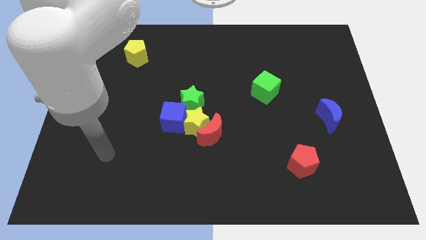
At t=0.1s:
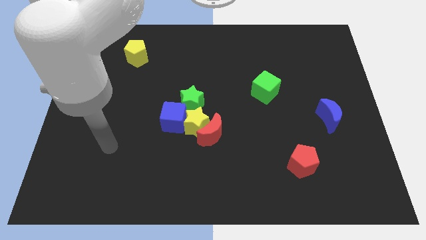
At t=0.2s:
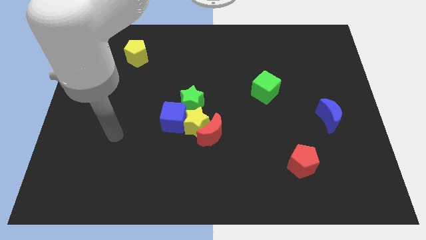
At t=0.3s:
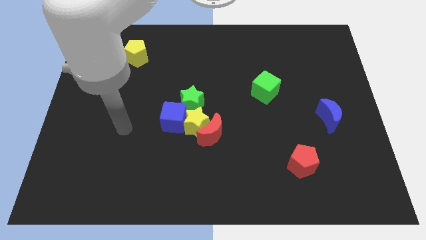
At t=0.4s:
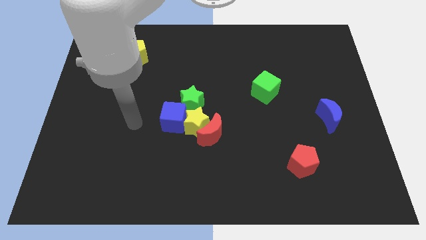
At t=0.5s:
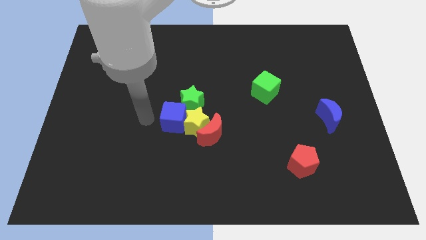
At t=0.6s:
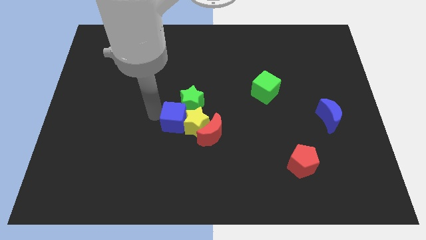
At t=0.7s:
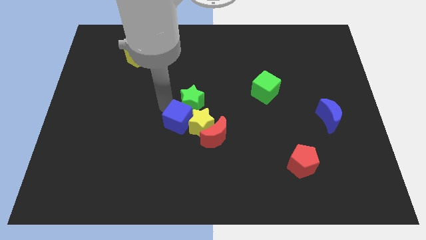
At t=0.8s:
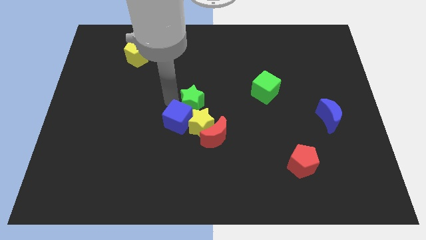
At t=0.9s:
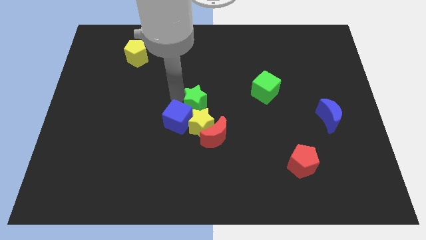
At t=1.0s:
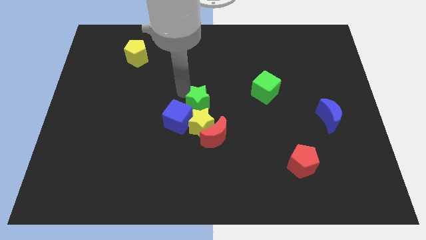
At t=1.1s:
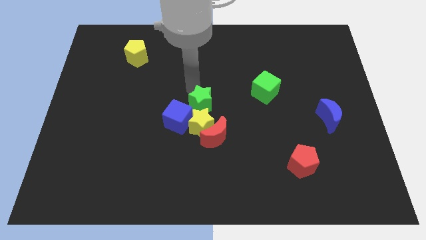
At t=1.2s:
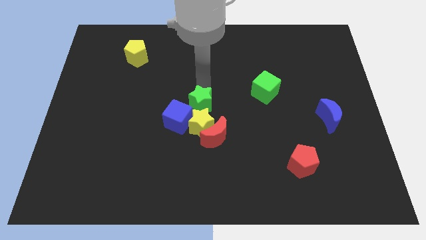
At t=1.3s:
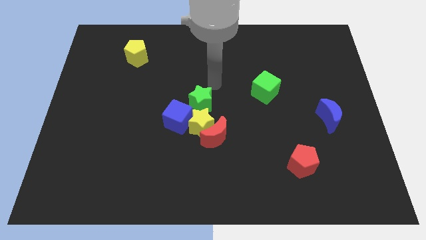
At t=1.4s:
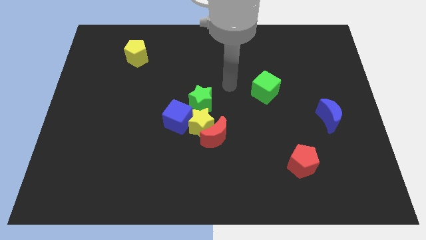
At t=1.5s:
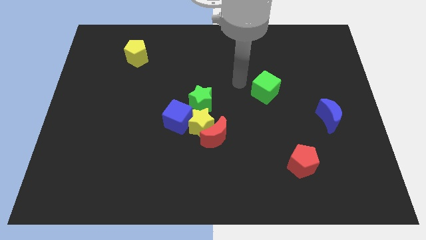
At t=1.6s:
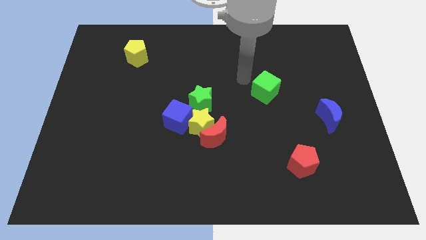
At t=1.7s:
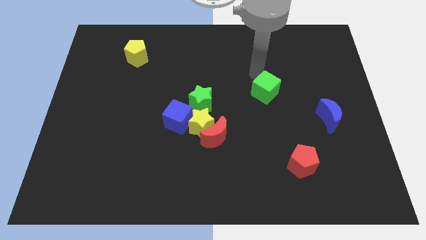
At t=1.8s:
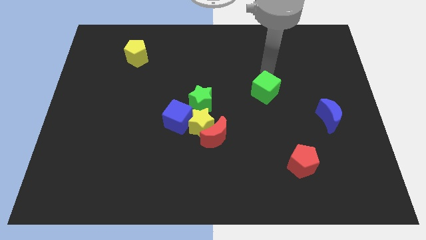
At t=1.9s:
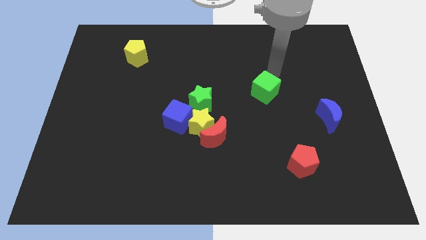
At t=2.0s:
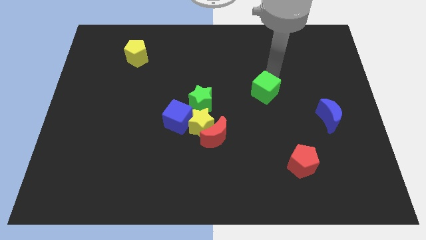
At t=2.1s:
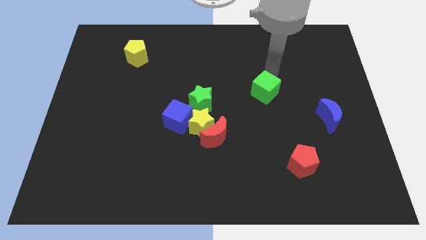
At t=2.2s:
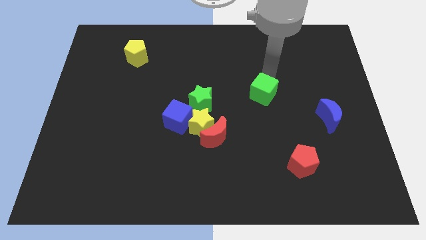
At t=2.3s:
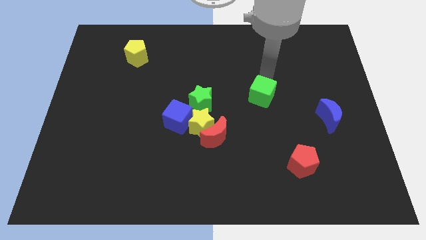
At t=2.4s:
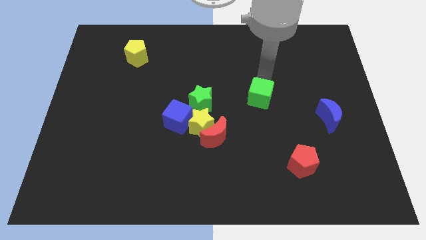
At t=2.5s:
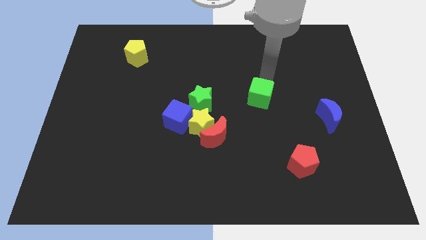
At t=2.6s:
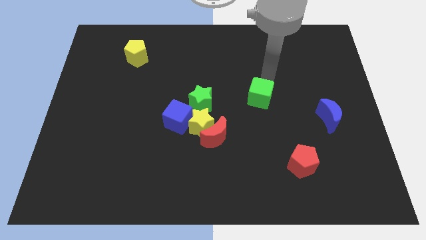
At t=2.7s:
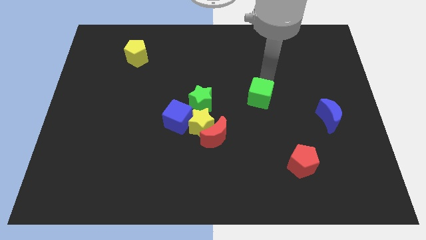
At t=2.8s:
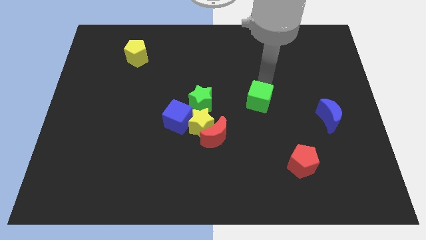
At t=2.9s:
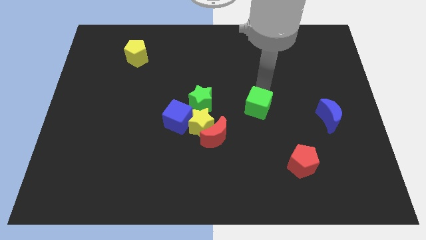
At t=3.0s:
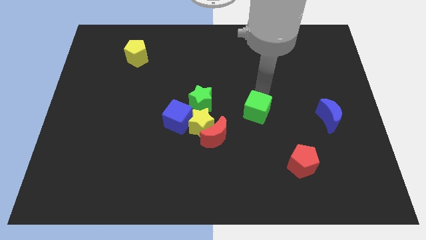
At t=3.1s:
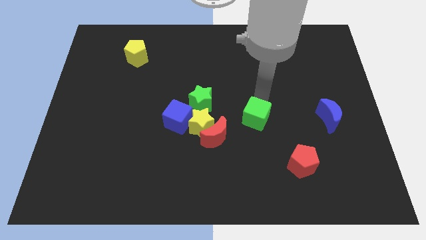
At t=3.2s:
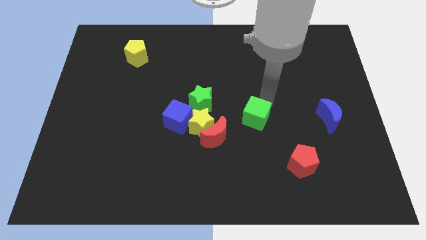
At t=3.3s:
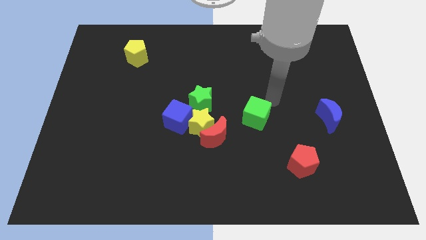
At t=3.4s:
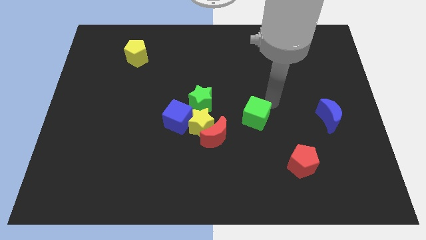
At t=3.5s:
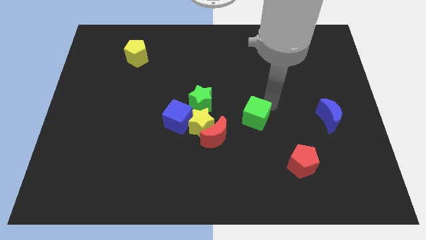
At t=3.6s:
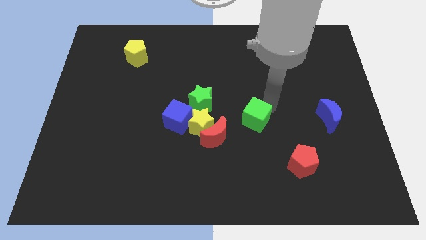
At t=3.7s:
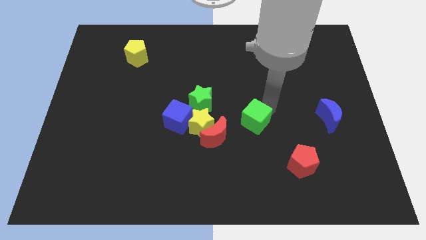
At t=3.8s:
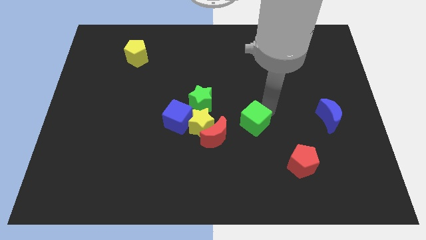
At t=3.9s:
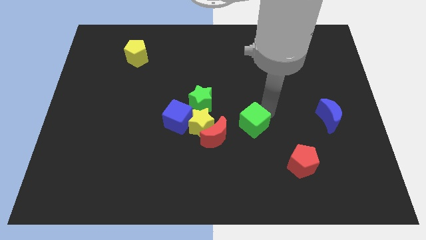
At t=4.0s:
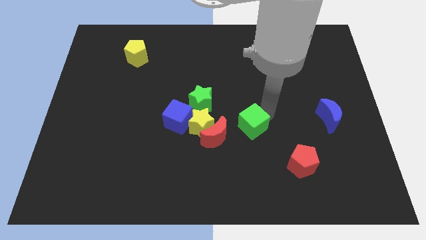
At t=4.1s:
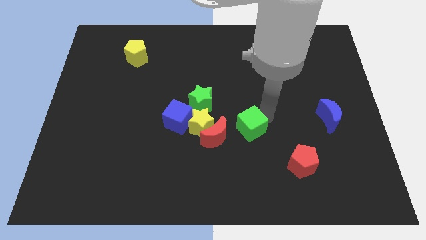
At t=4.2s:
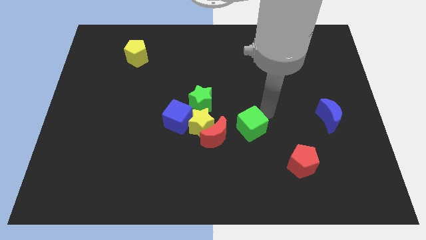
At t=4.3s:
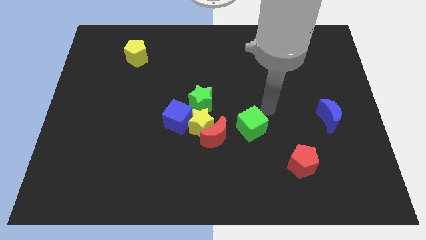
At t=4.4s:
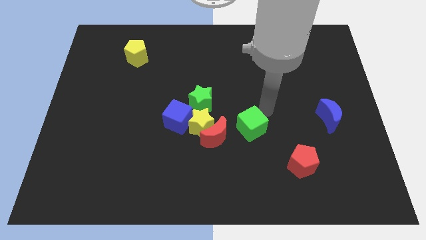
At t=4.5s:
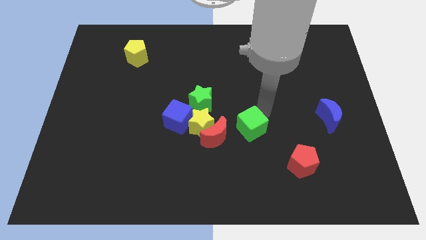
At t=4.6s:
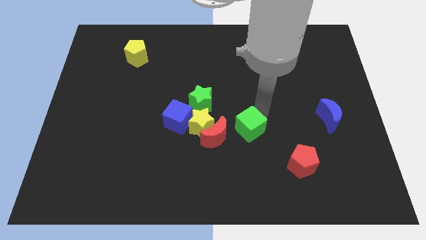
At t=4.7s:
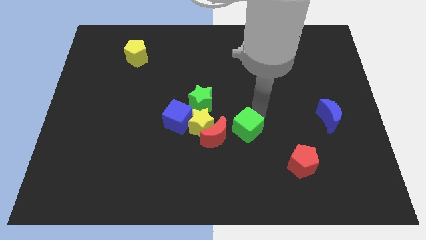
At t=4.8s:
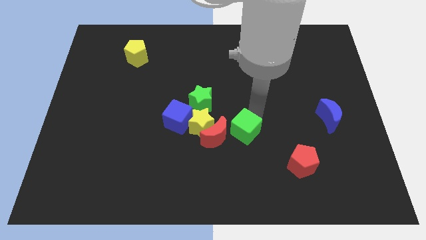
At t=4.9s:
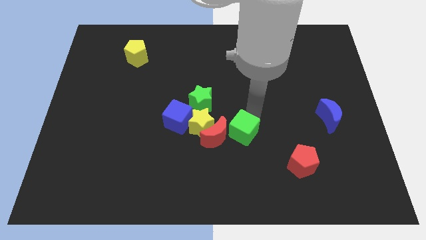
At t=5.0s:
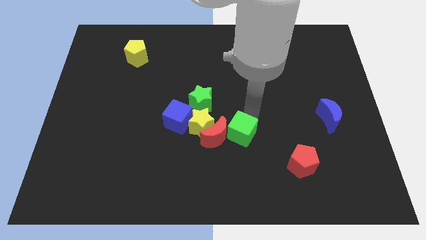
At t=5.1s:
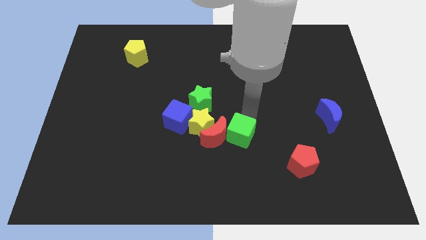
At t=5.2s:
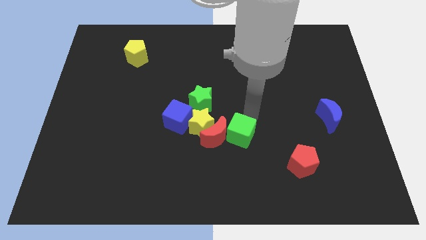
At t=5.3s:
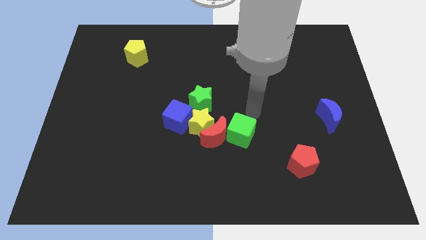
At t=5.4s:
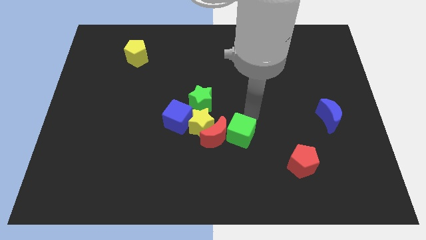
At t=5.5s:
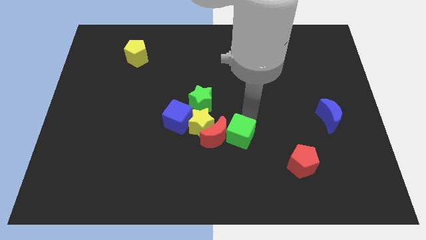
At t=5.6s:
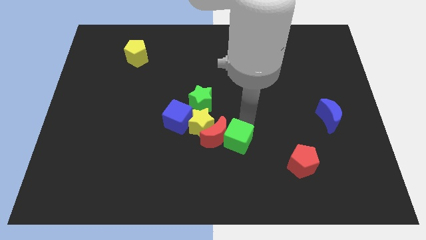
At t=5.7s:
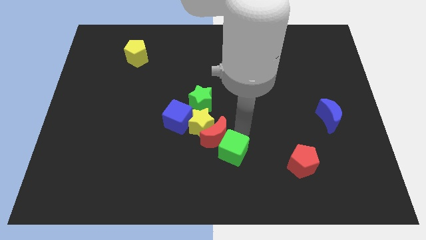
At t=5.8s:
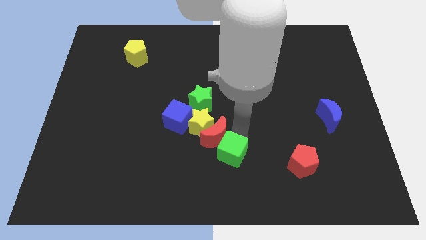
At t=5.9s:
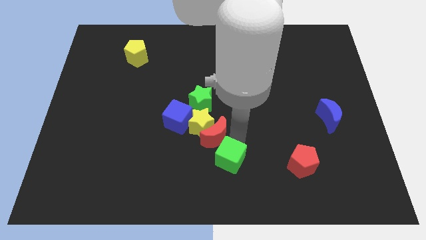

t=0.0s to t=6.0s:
put the green cube to the bottom

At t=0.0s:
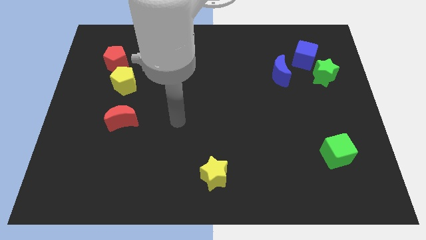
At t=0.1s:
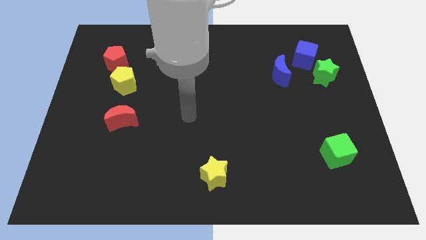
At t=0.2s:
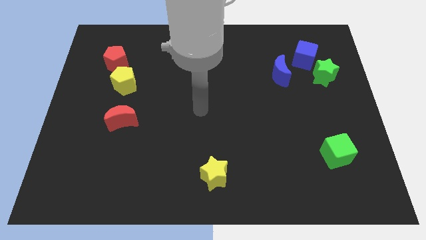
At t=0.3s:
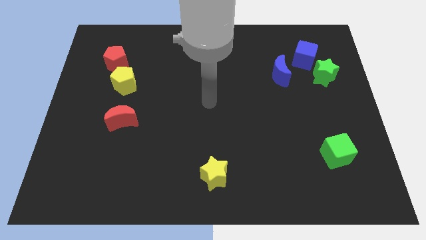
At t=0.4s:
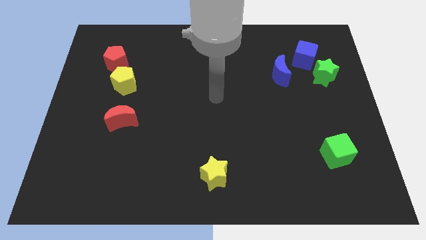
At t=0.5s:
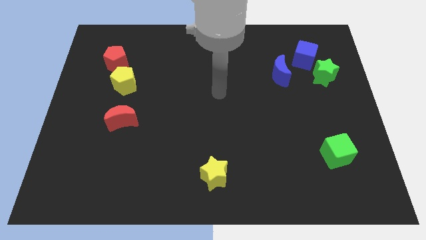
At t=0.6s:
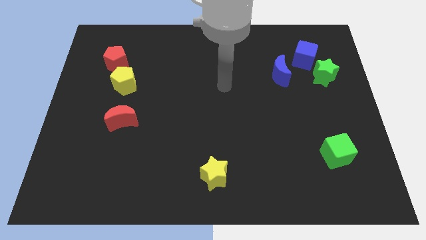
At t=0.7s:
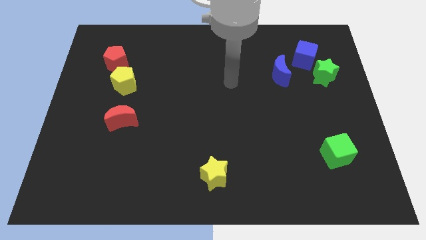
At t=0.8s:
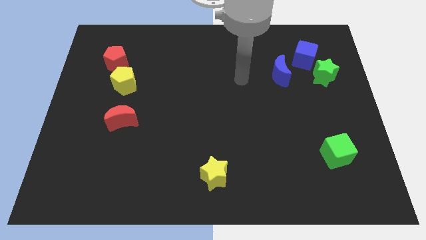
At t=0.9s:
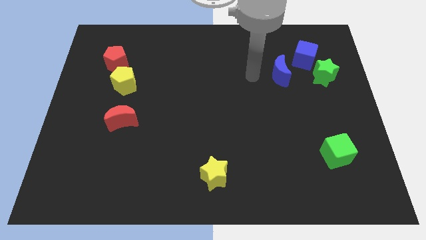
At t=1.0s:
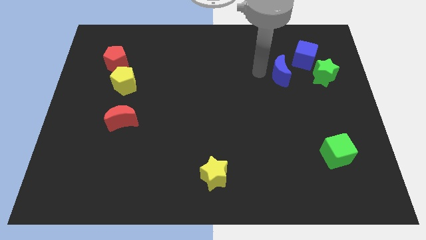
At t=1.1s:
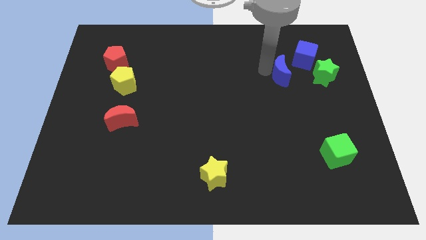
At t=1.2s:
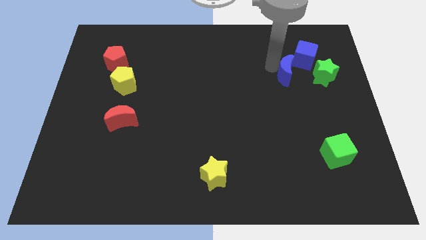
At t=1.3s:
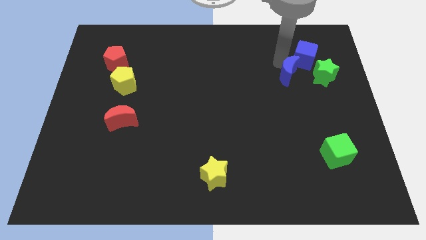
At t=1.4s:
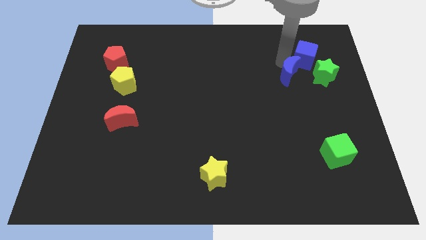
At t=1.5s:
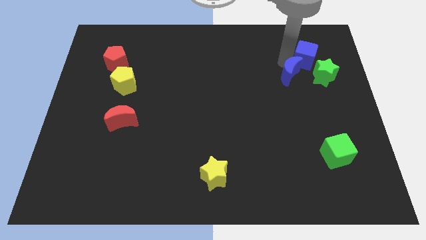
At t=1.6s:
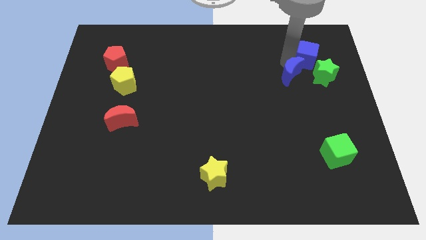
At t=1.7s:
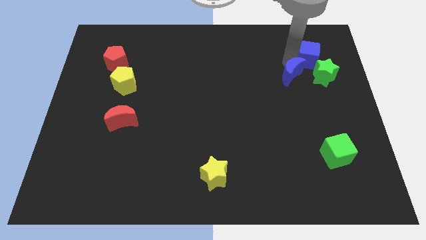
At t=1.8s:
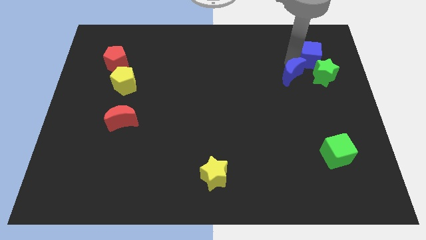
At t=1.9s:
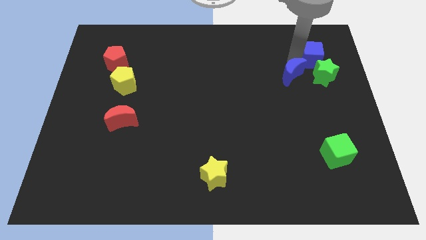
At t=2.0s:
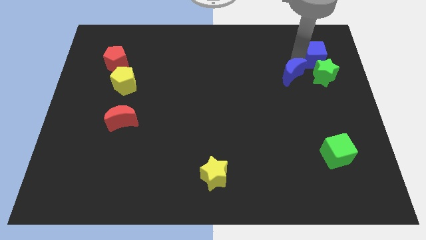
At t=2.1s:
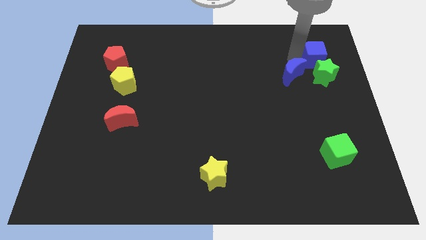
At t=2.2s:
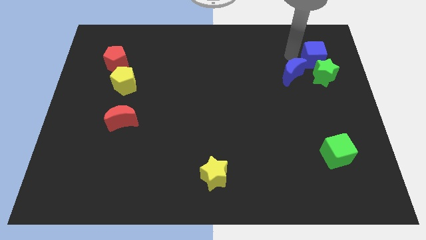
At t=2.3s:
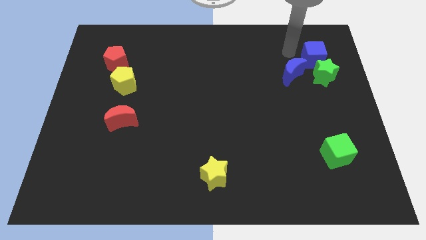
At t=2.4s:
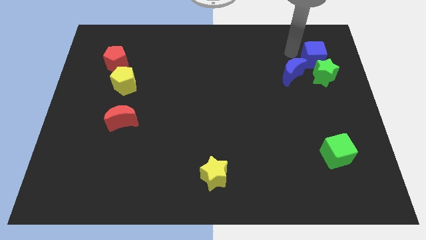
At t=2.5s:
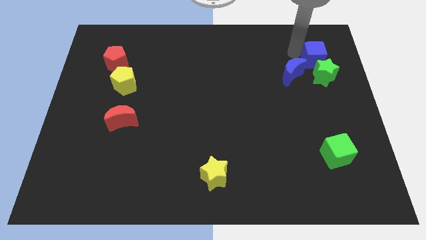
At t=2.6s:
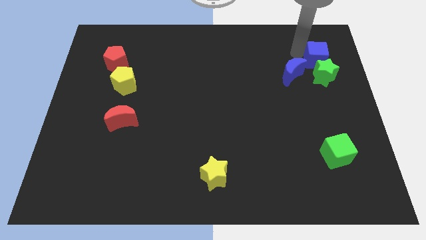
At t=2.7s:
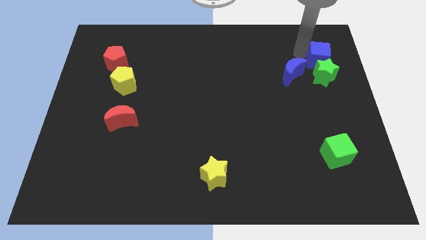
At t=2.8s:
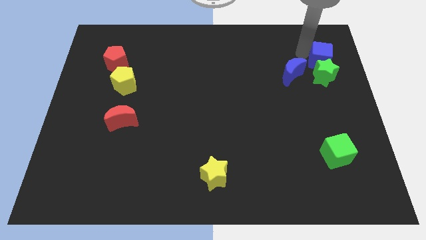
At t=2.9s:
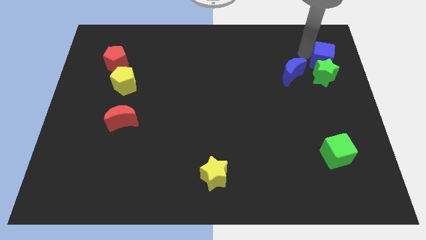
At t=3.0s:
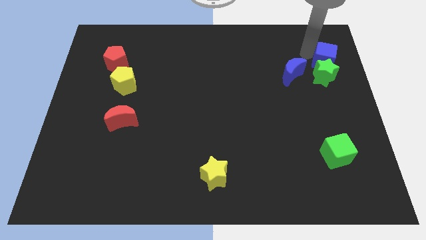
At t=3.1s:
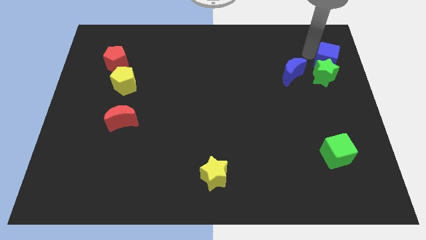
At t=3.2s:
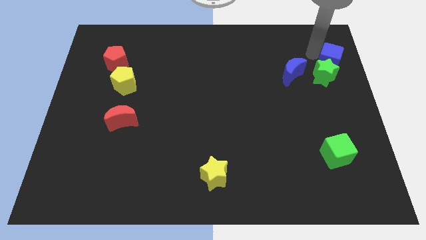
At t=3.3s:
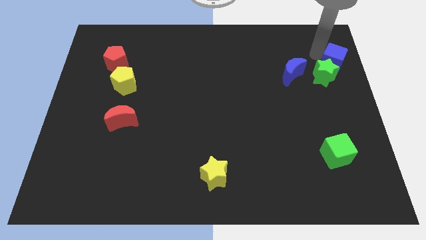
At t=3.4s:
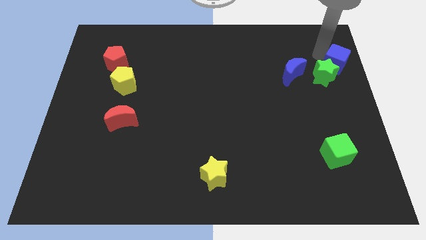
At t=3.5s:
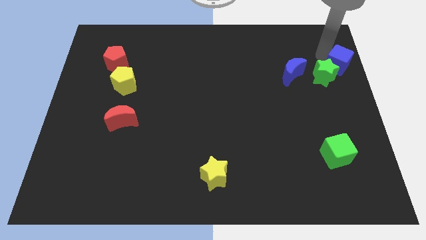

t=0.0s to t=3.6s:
move the blue cube to the center right
